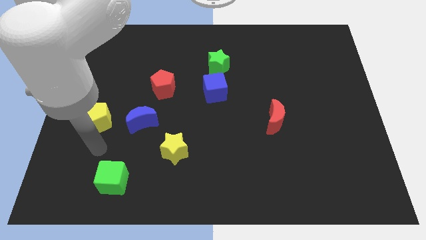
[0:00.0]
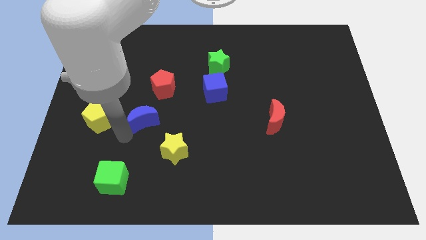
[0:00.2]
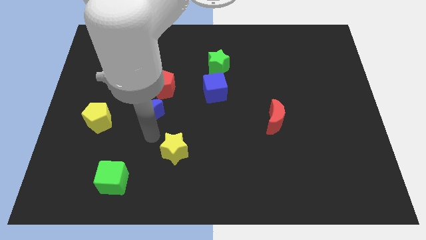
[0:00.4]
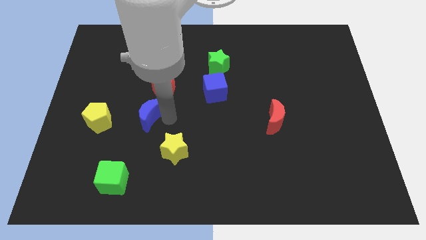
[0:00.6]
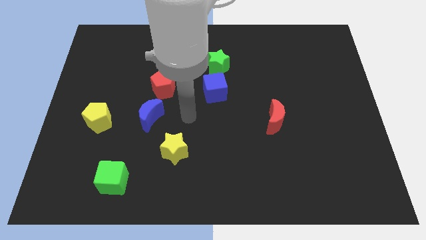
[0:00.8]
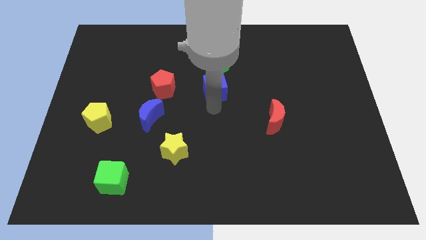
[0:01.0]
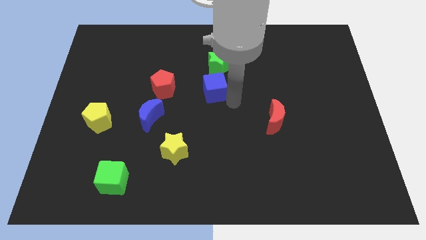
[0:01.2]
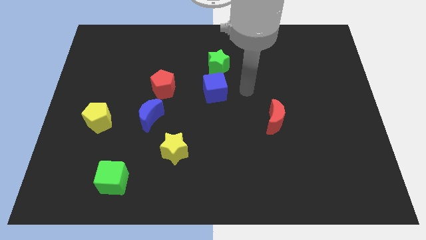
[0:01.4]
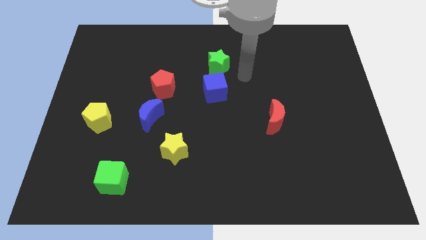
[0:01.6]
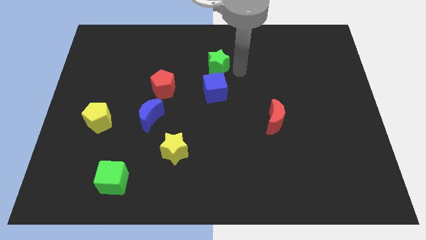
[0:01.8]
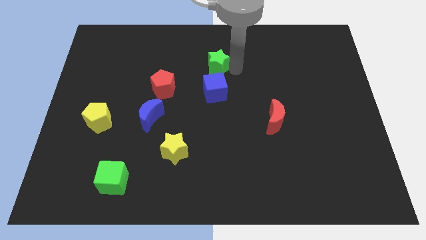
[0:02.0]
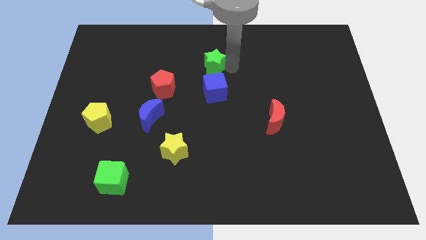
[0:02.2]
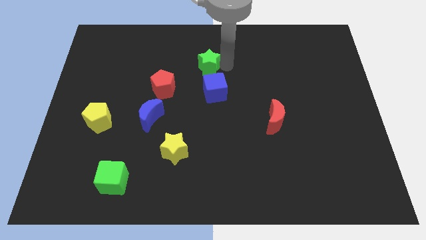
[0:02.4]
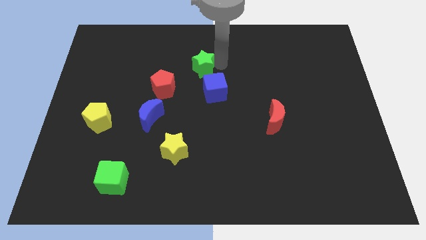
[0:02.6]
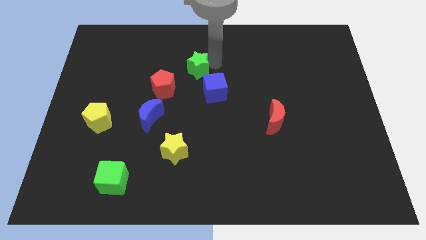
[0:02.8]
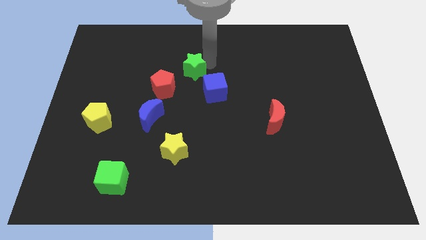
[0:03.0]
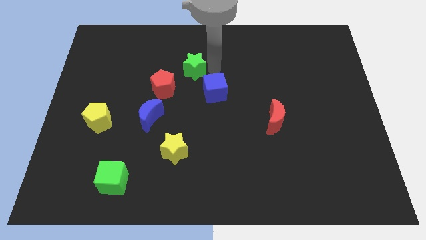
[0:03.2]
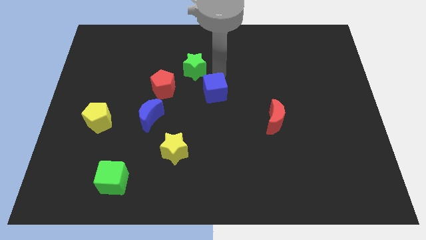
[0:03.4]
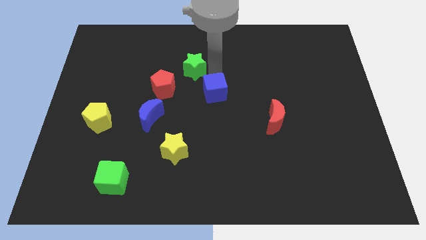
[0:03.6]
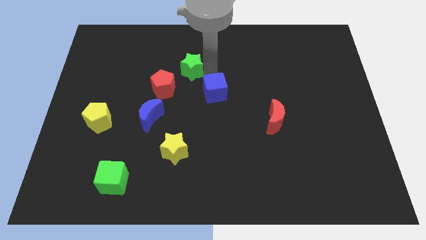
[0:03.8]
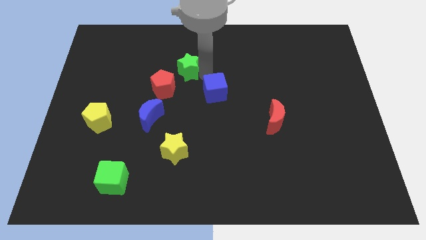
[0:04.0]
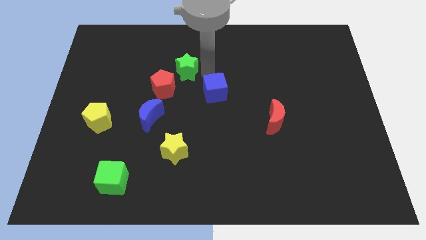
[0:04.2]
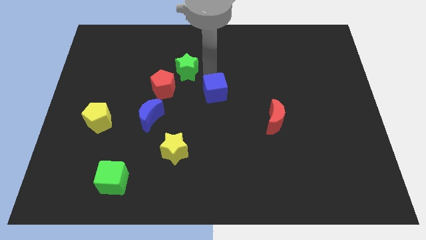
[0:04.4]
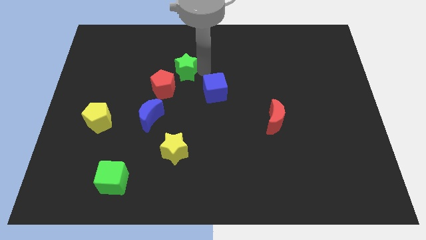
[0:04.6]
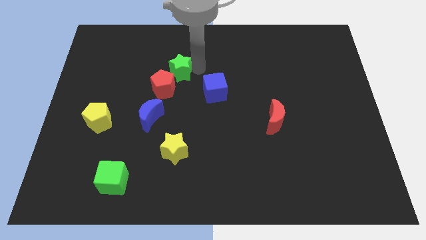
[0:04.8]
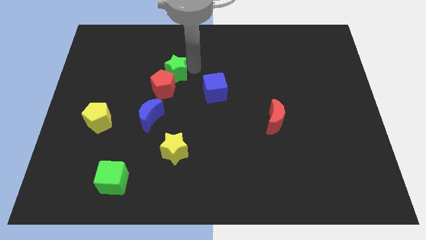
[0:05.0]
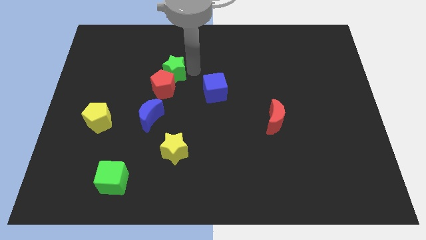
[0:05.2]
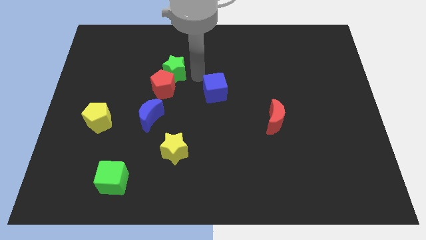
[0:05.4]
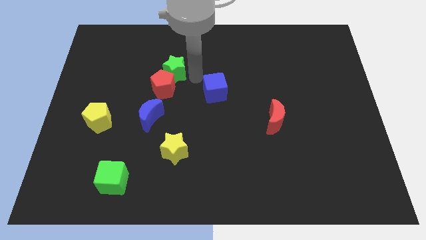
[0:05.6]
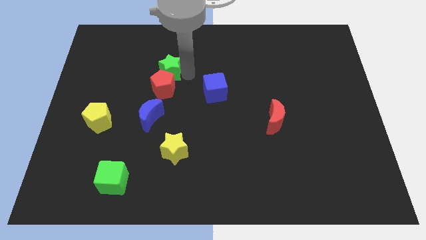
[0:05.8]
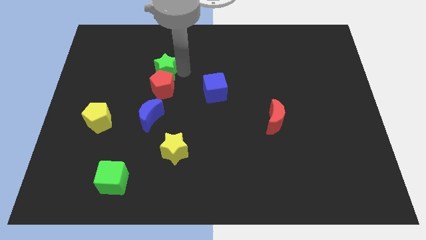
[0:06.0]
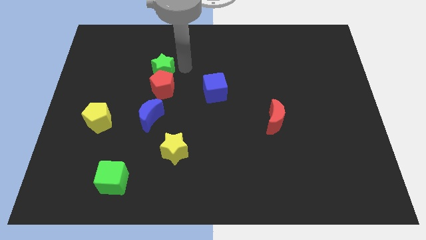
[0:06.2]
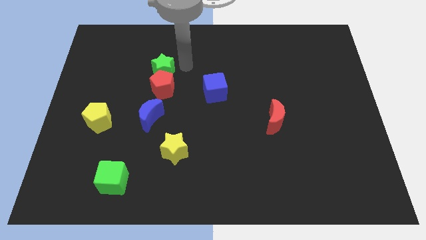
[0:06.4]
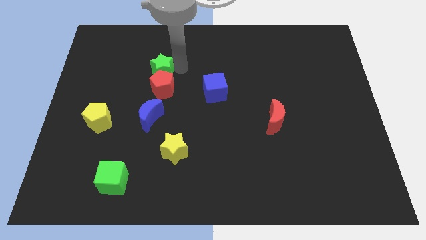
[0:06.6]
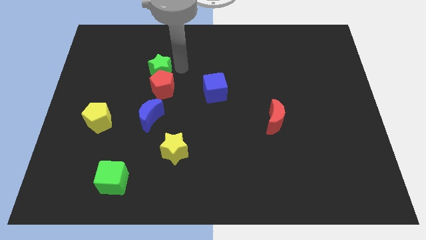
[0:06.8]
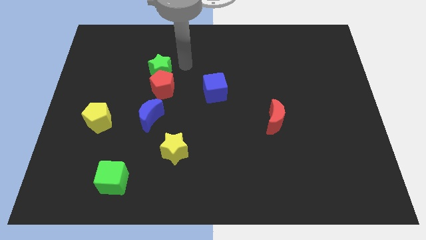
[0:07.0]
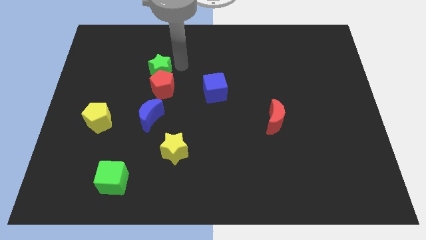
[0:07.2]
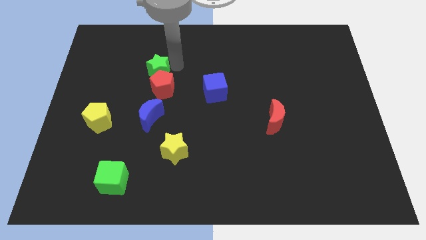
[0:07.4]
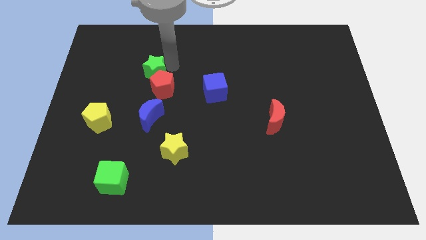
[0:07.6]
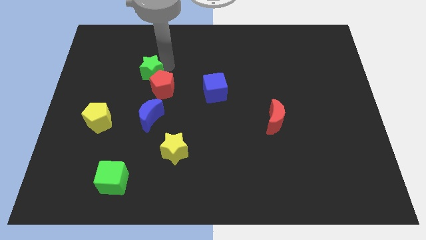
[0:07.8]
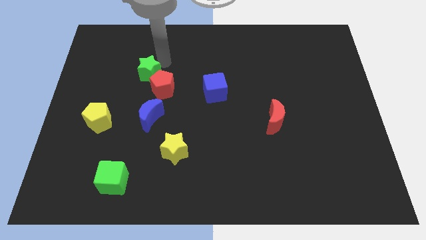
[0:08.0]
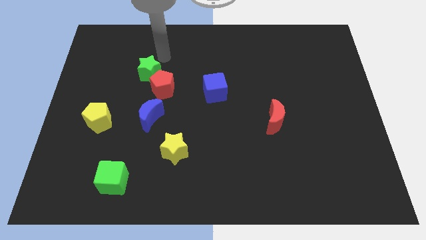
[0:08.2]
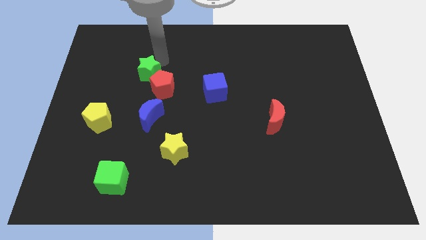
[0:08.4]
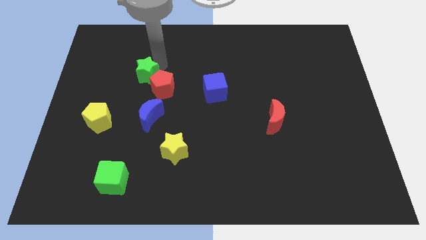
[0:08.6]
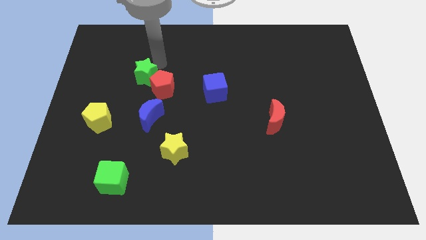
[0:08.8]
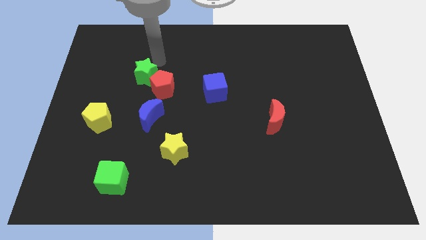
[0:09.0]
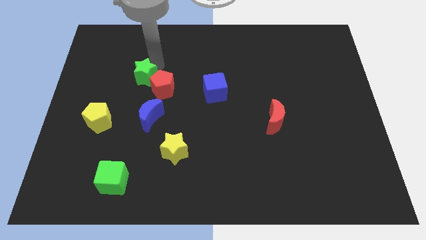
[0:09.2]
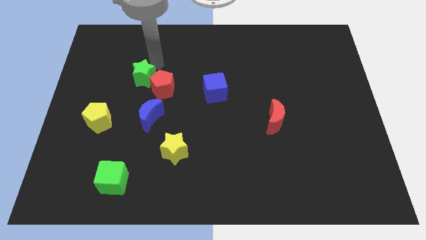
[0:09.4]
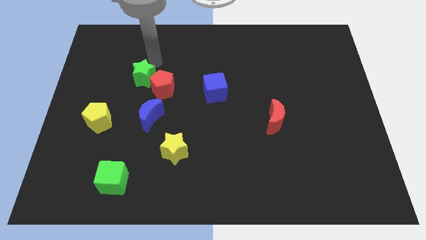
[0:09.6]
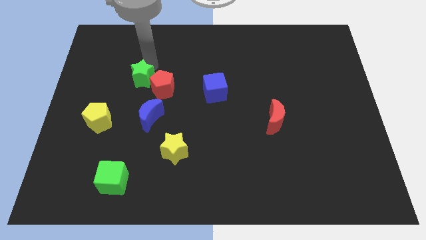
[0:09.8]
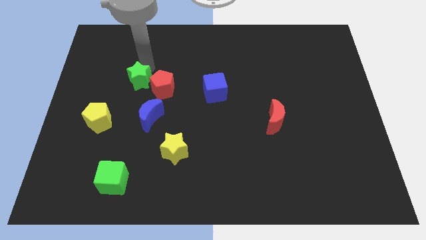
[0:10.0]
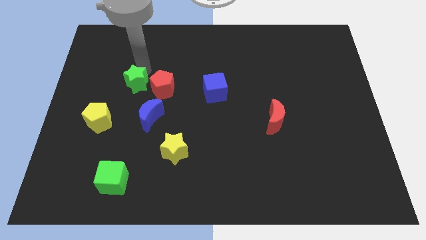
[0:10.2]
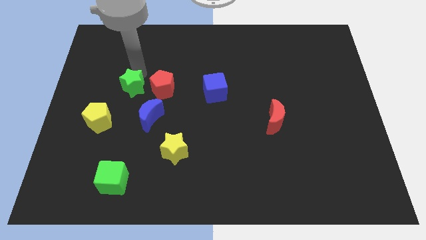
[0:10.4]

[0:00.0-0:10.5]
put the green star to the top right of the yellow pentagon

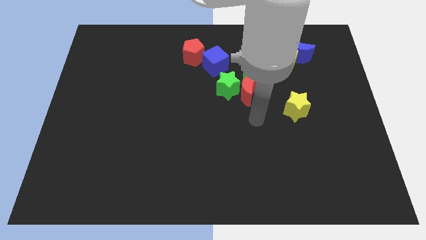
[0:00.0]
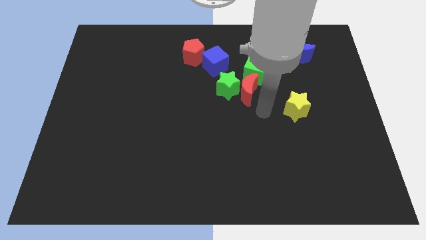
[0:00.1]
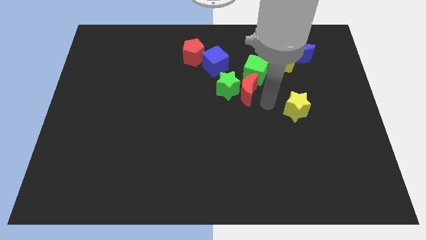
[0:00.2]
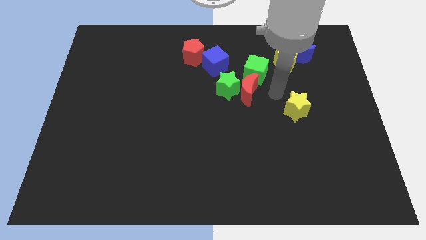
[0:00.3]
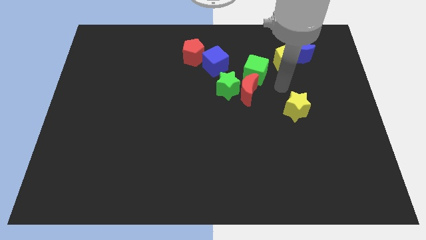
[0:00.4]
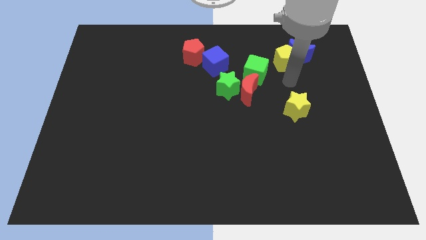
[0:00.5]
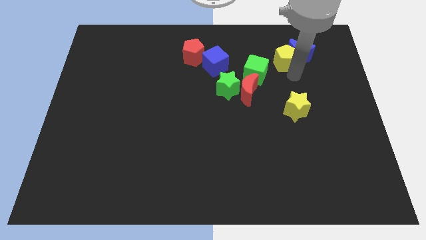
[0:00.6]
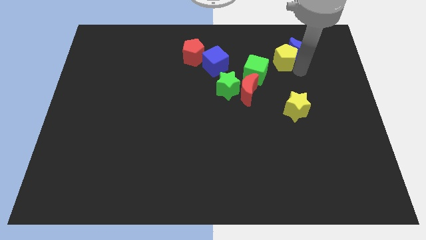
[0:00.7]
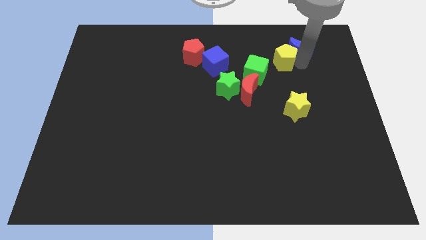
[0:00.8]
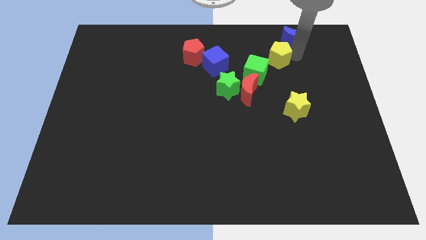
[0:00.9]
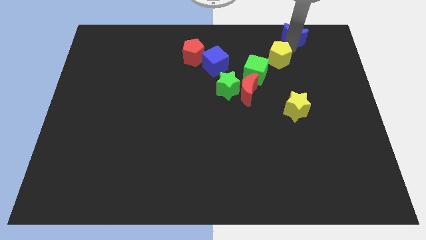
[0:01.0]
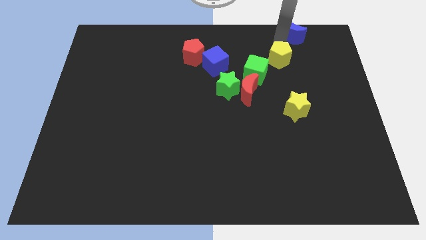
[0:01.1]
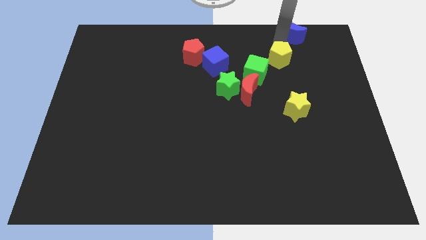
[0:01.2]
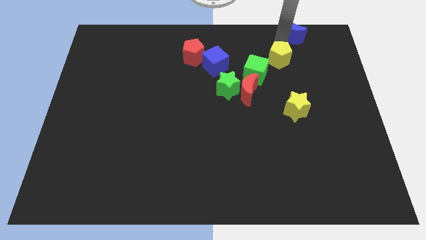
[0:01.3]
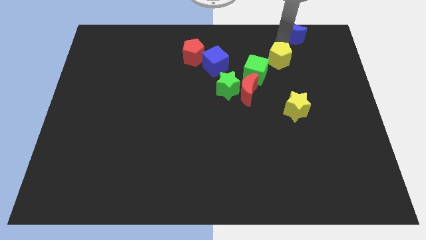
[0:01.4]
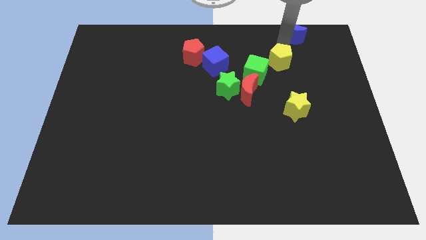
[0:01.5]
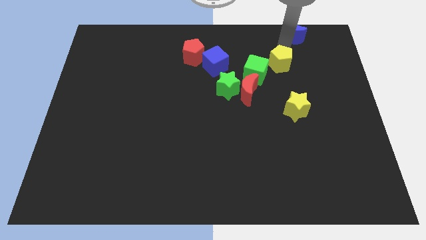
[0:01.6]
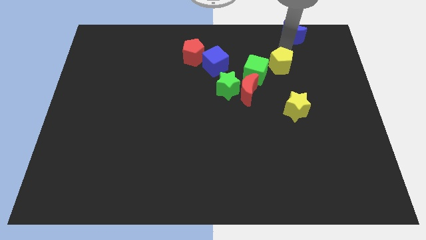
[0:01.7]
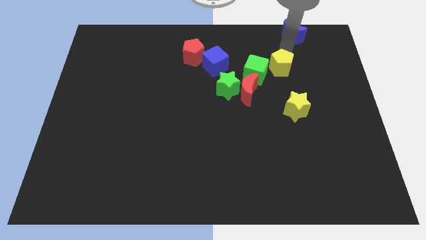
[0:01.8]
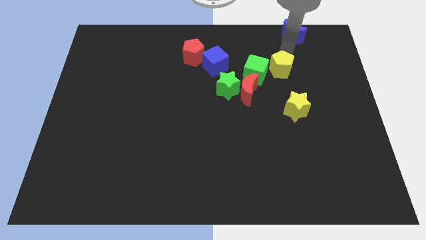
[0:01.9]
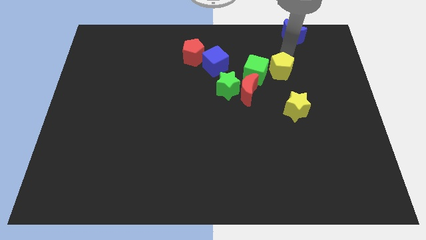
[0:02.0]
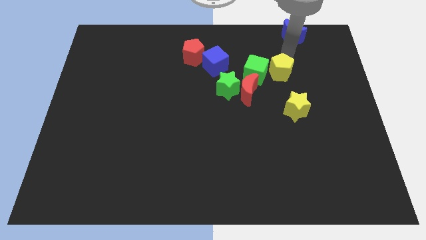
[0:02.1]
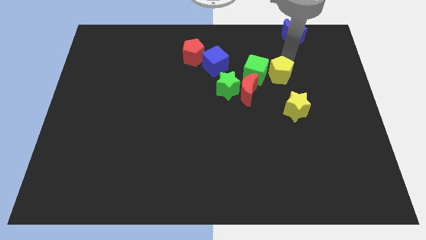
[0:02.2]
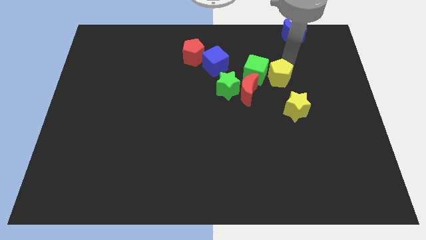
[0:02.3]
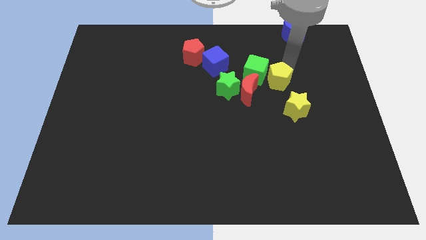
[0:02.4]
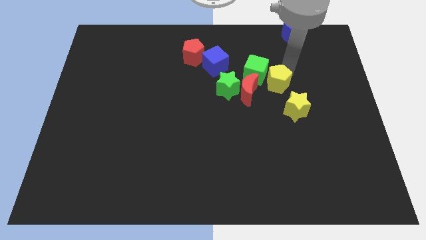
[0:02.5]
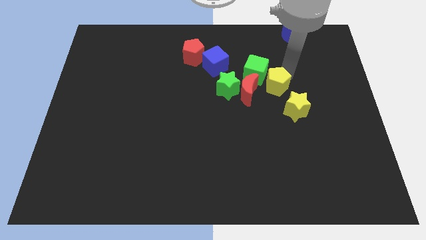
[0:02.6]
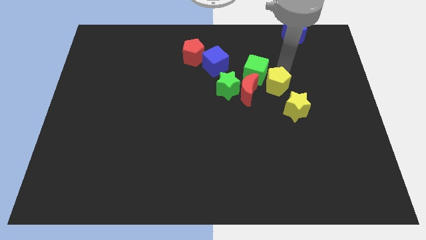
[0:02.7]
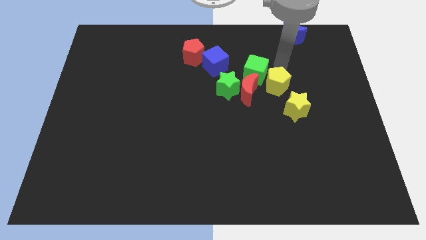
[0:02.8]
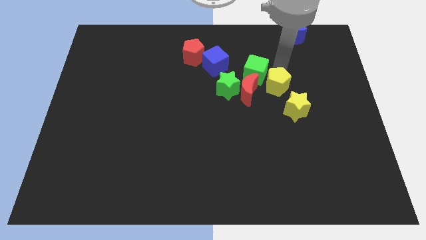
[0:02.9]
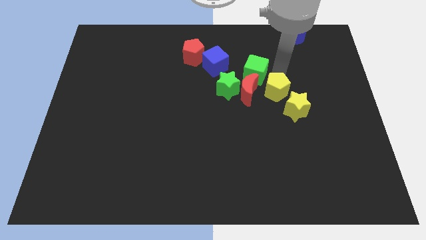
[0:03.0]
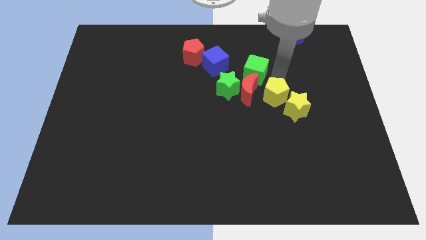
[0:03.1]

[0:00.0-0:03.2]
slide the yellow pentagon to the bottom right side of the red moon
